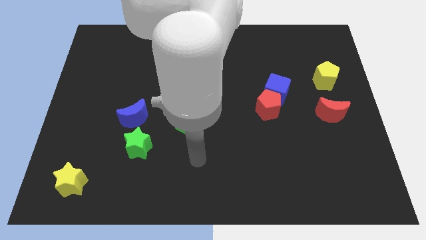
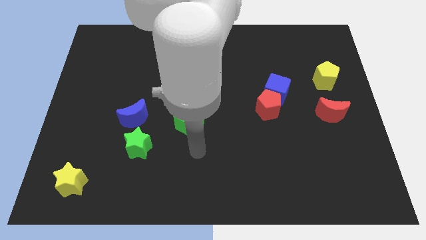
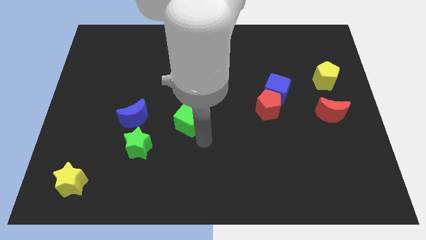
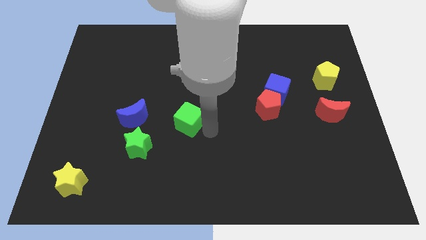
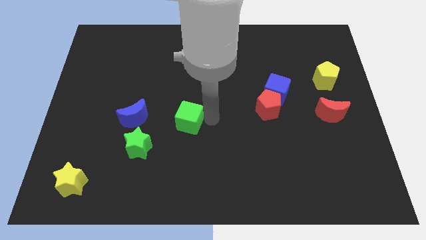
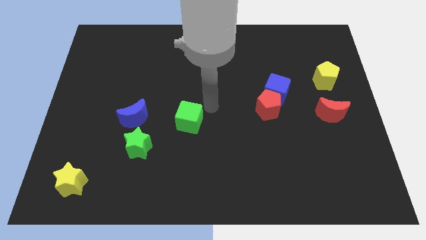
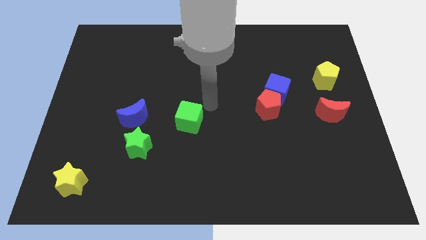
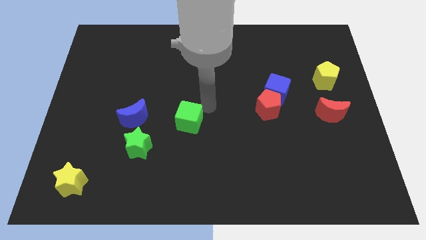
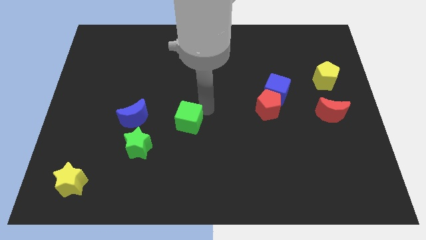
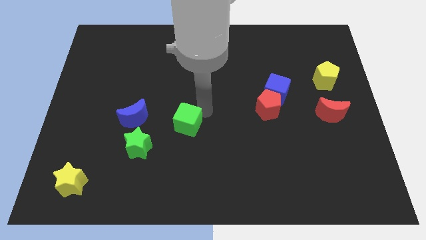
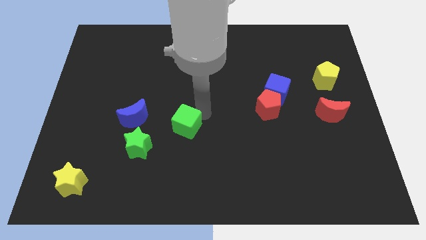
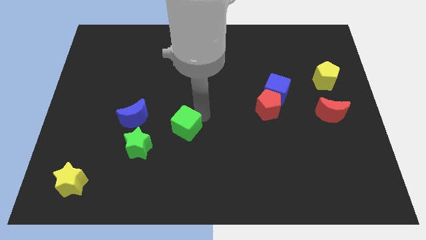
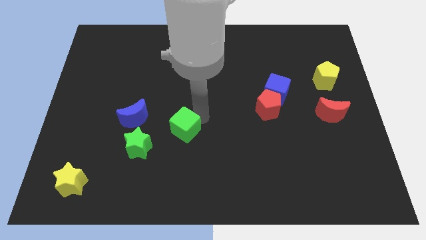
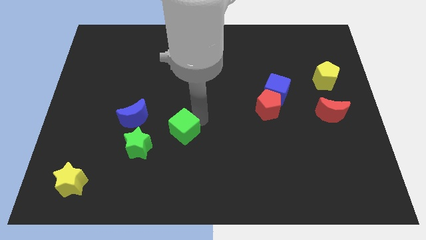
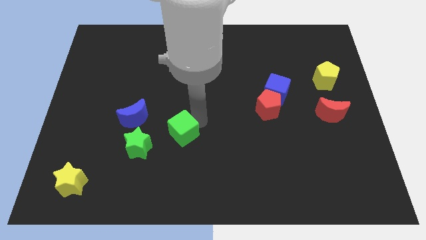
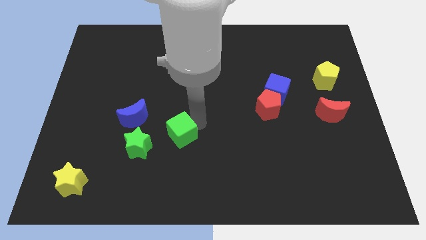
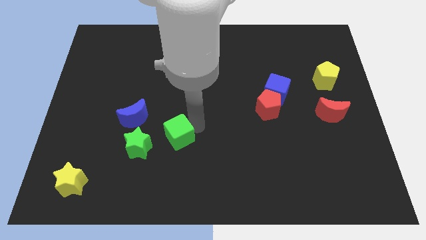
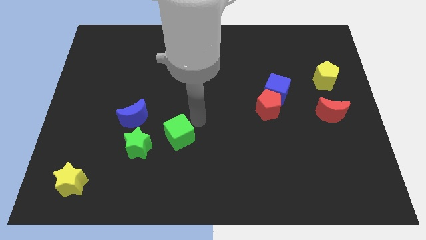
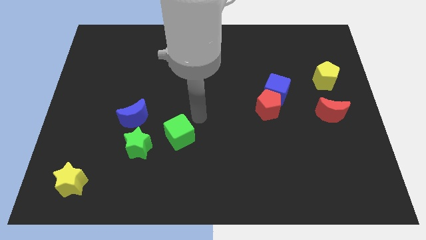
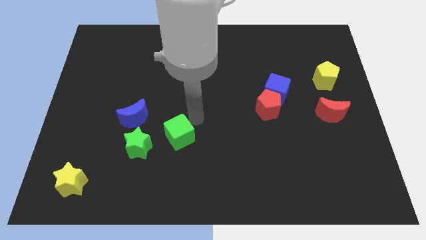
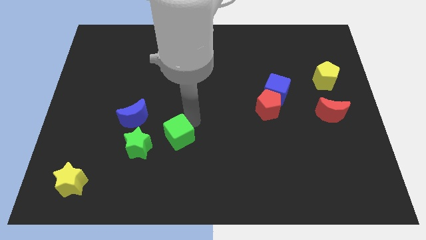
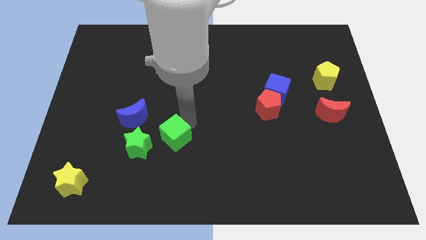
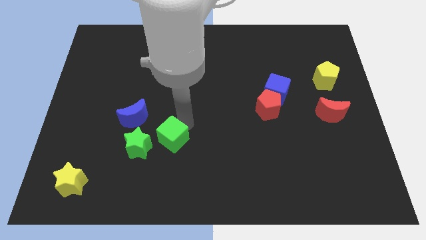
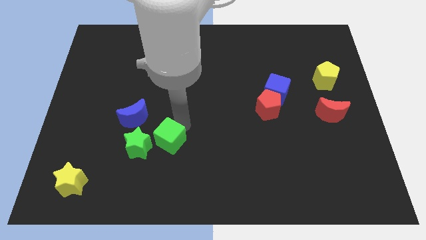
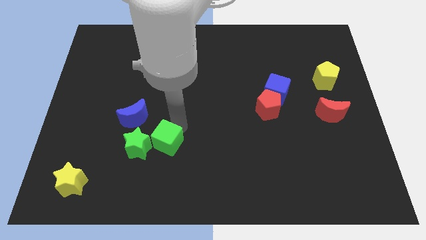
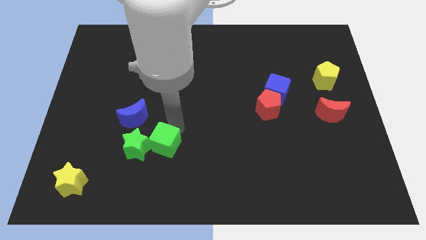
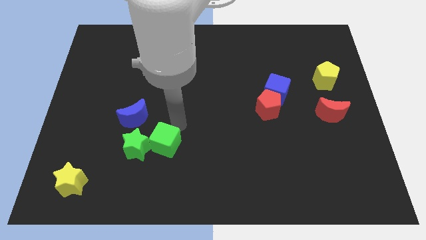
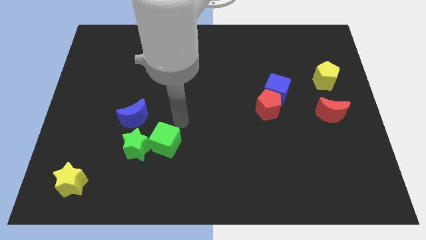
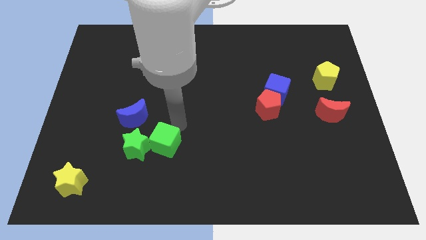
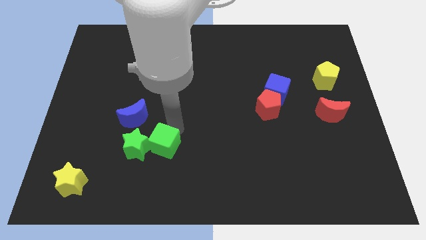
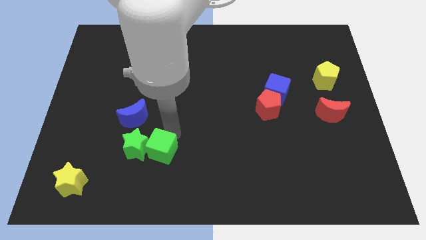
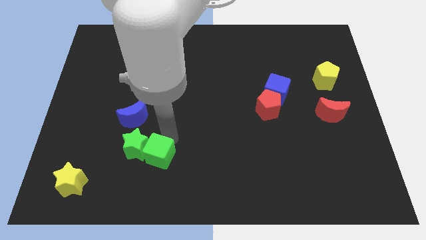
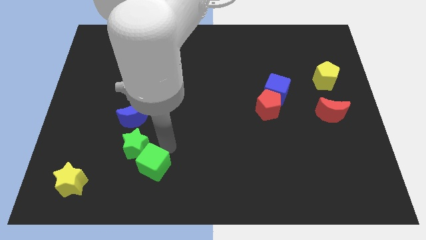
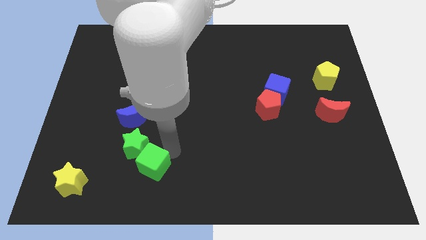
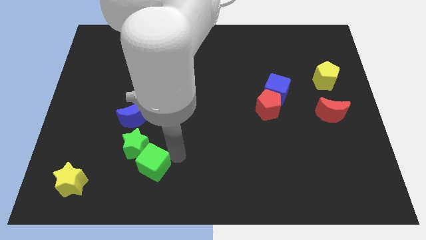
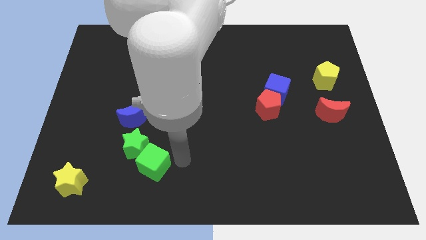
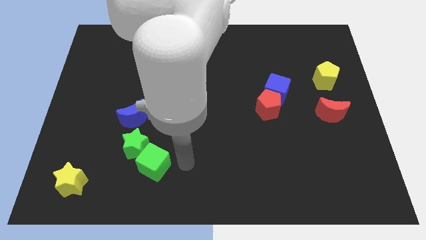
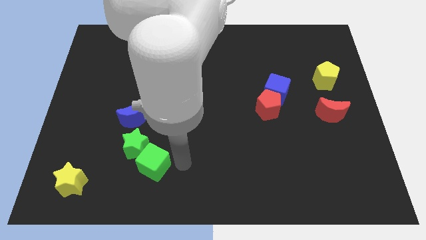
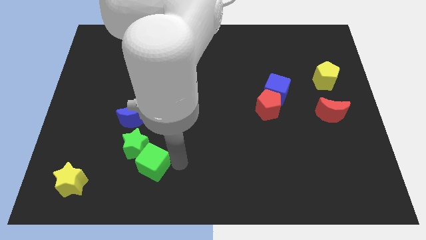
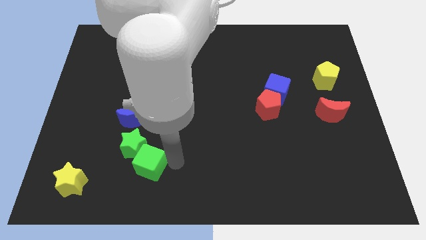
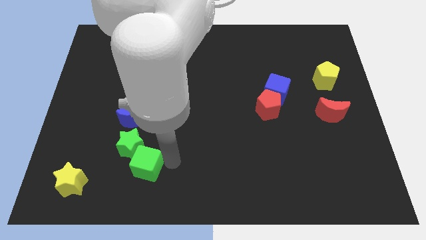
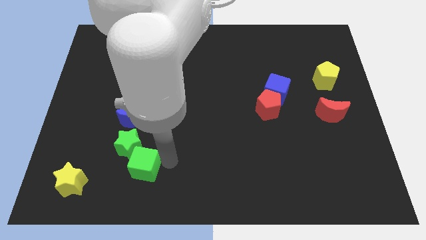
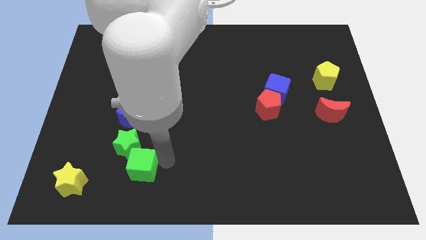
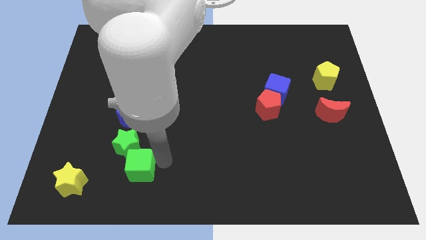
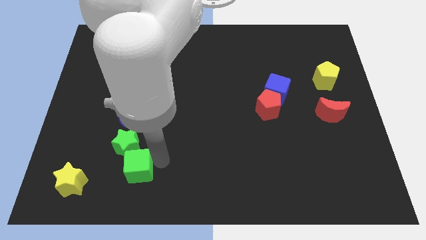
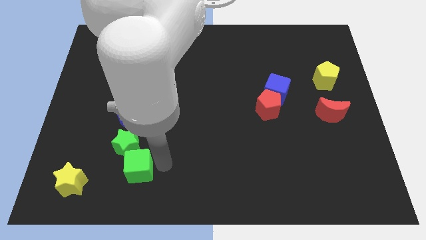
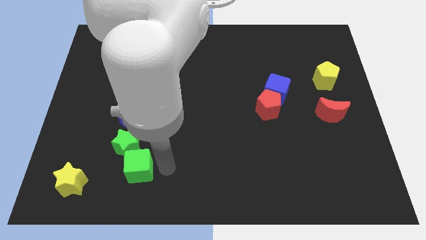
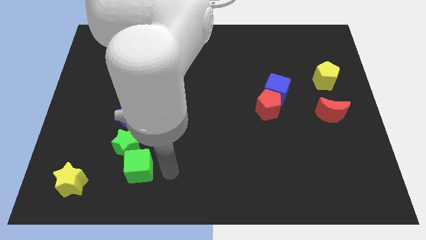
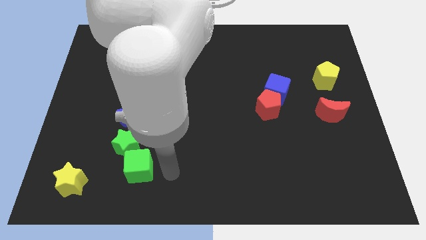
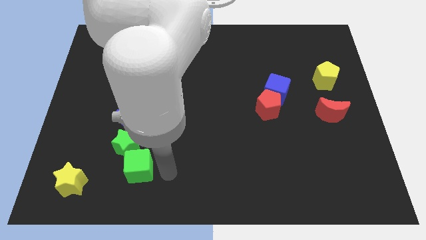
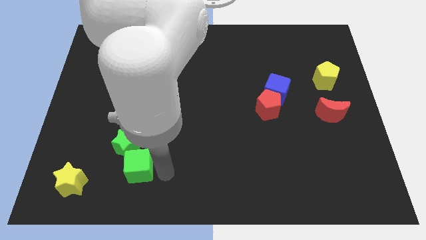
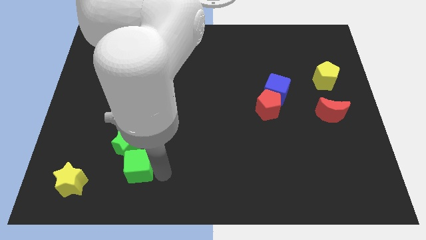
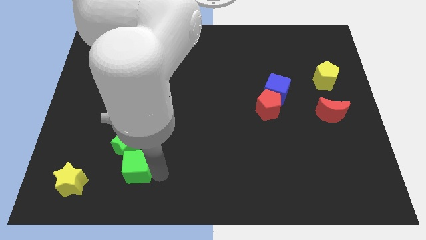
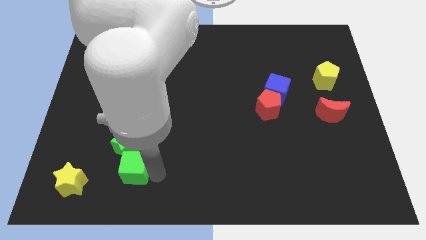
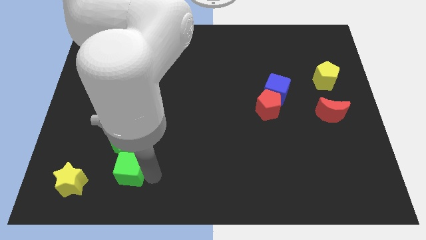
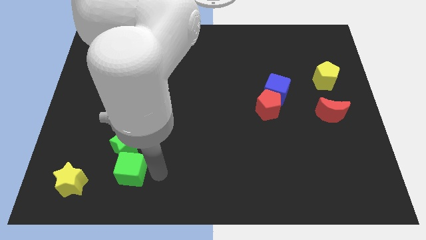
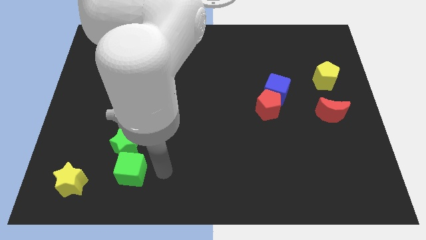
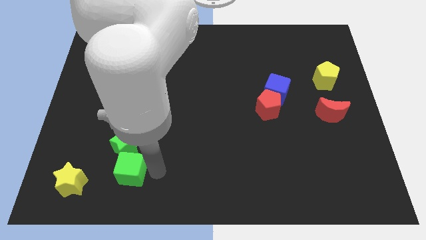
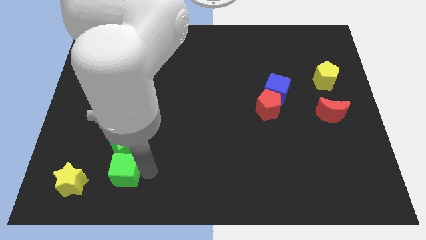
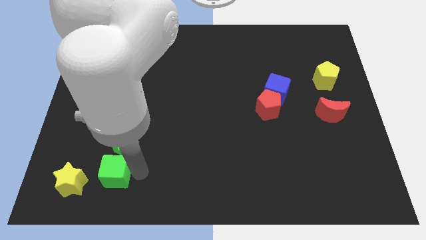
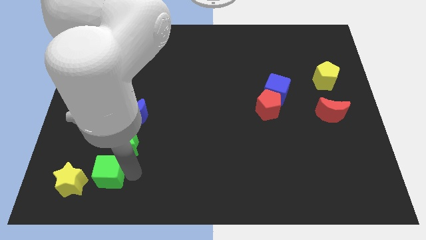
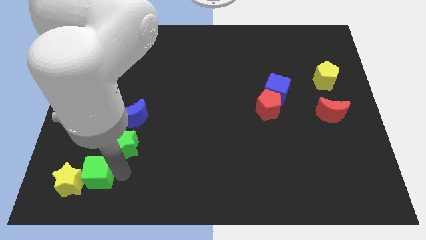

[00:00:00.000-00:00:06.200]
put the green cube to the yellow star

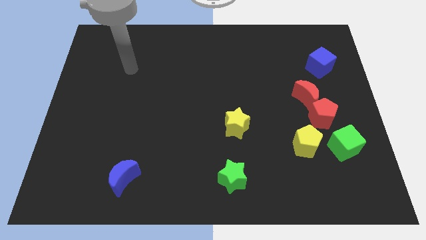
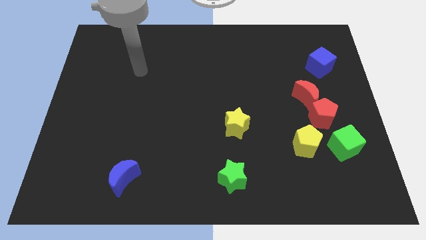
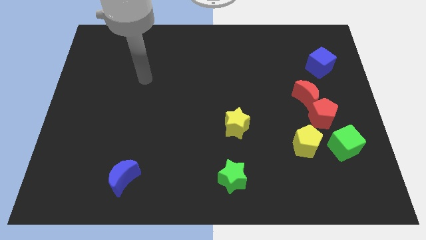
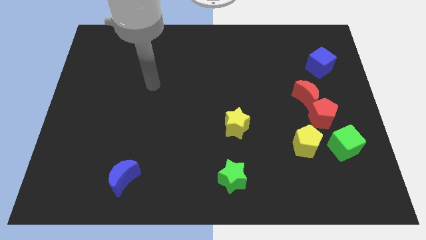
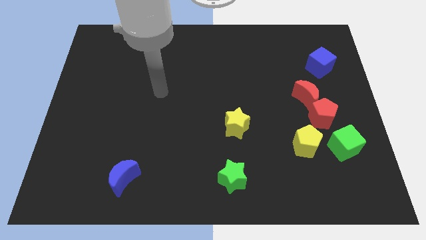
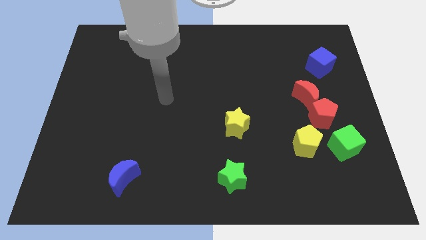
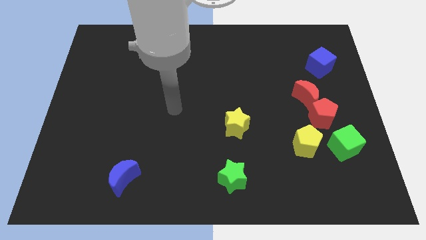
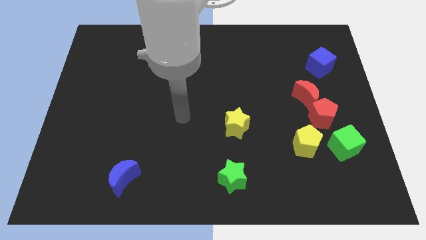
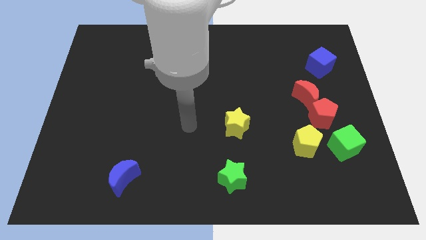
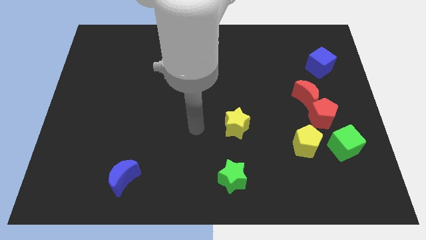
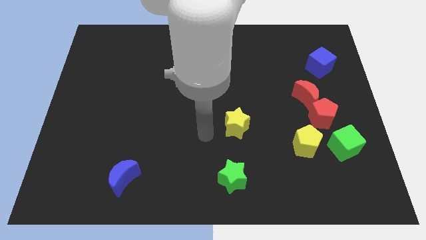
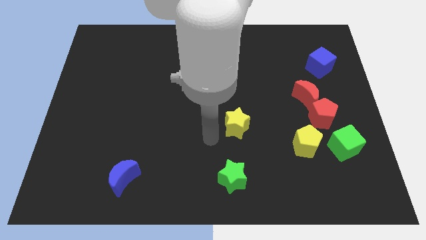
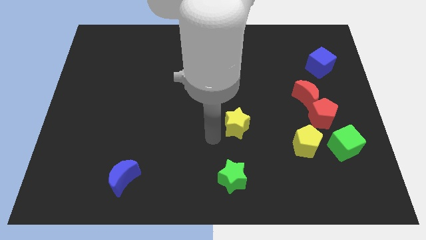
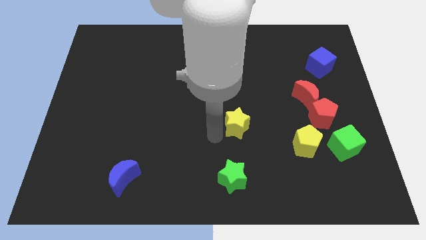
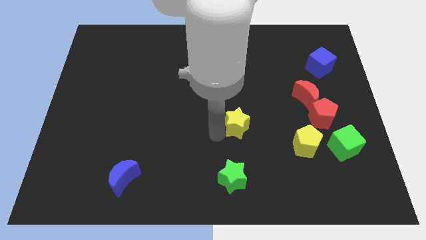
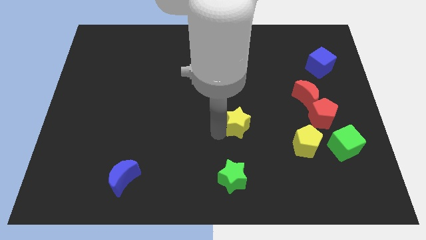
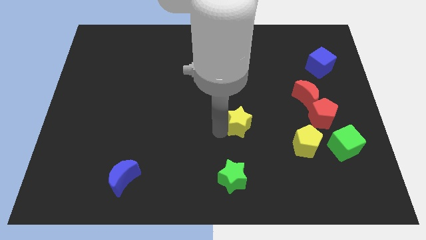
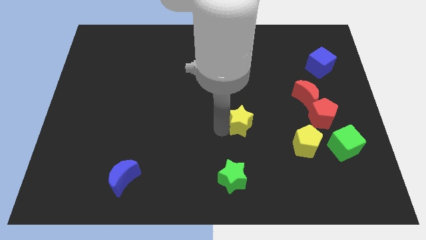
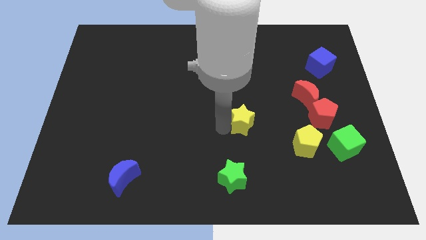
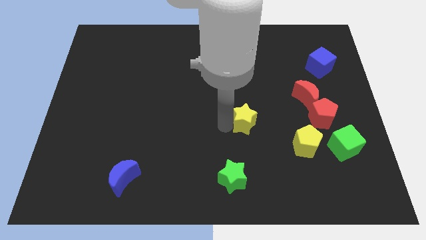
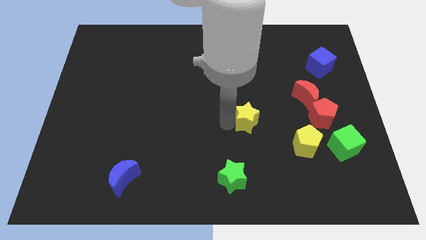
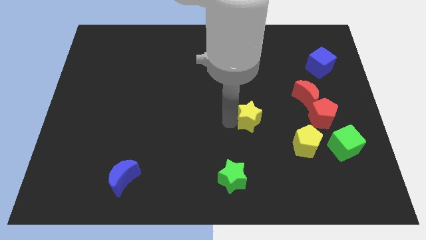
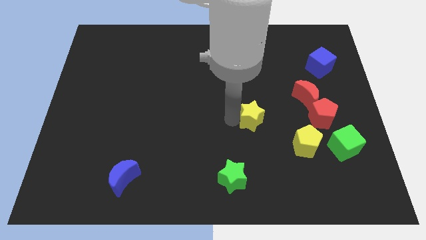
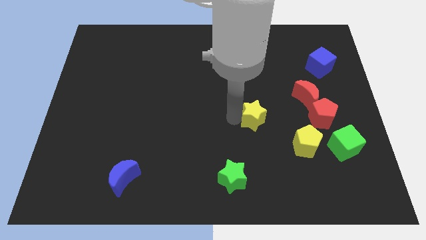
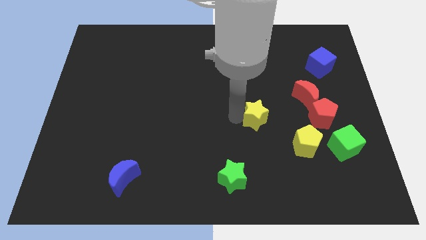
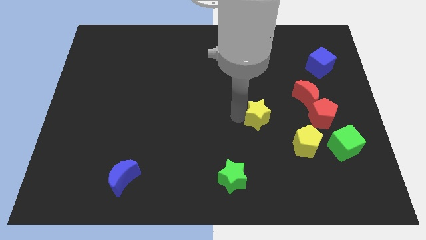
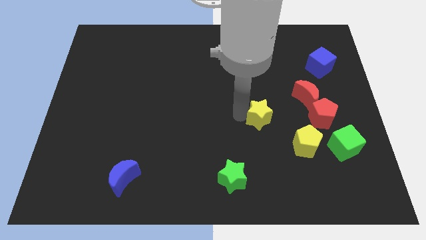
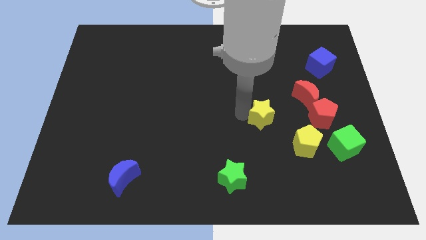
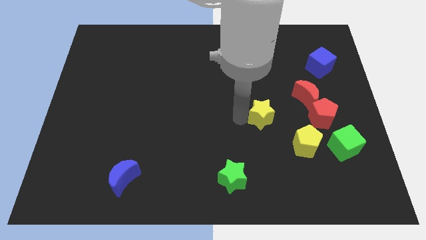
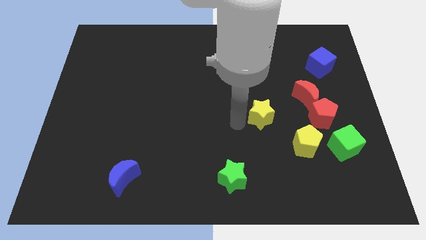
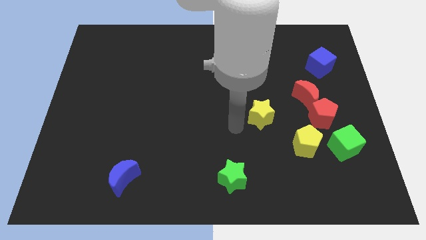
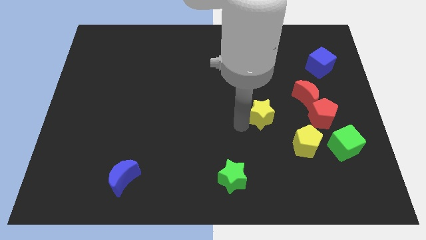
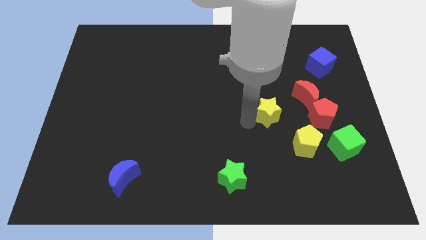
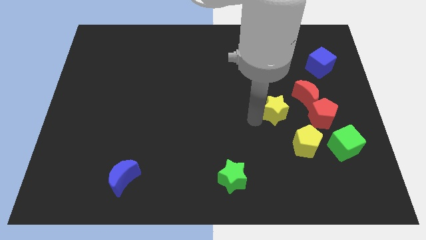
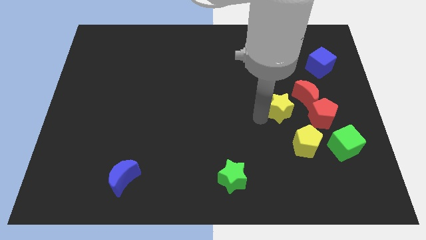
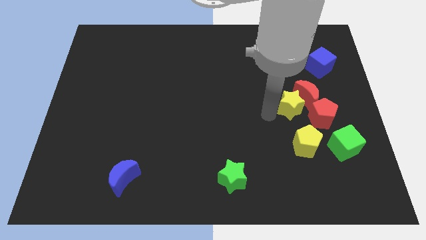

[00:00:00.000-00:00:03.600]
push the yellow star close to the red moon
